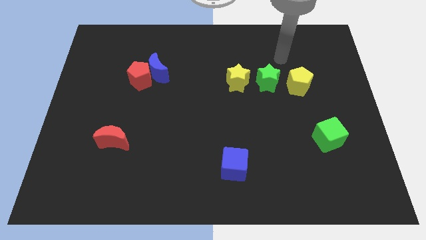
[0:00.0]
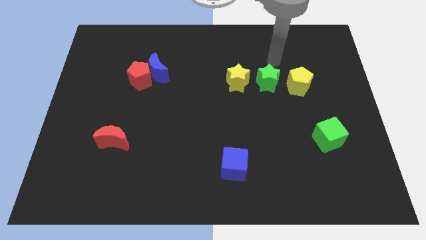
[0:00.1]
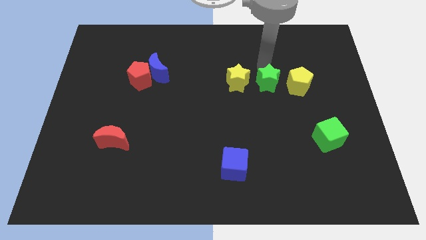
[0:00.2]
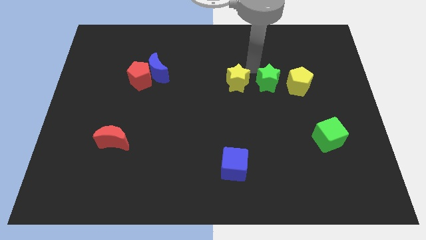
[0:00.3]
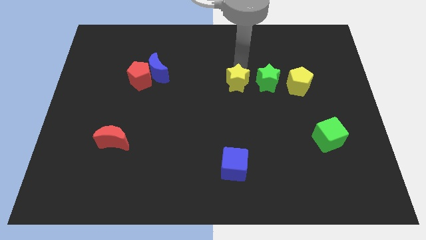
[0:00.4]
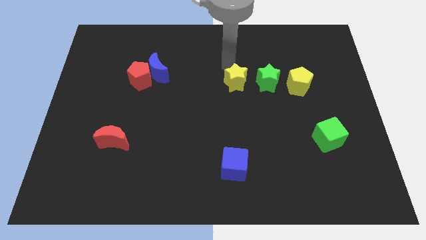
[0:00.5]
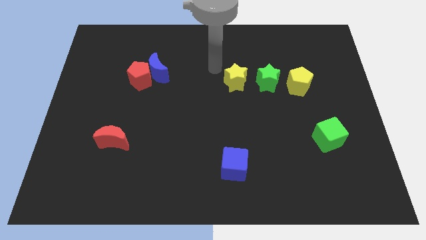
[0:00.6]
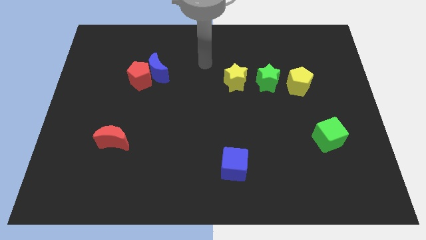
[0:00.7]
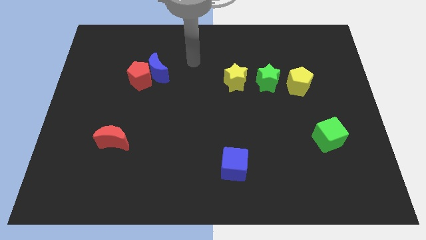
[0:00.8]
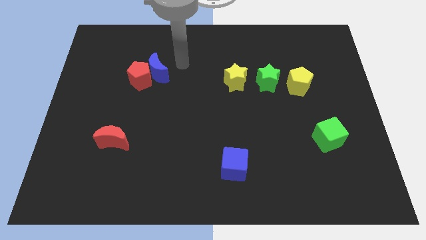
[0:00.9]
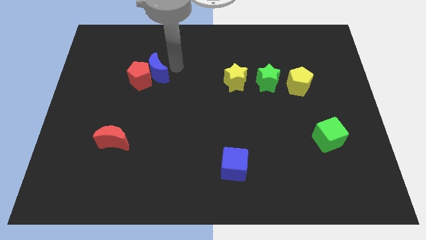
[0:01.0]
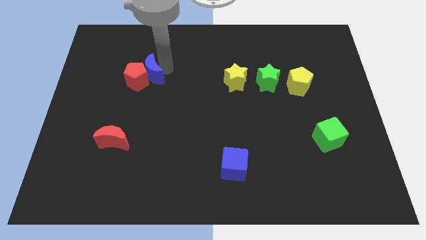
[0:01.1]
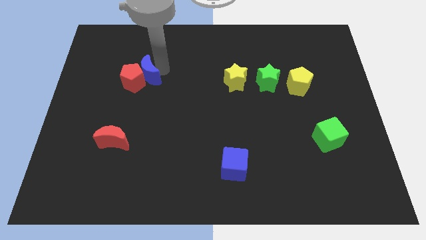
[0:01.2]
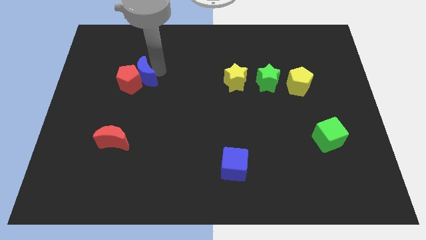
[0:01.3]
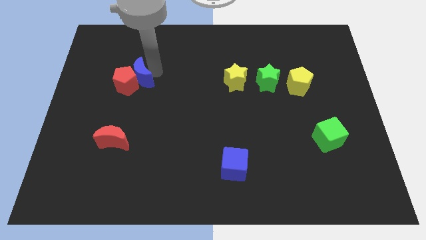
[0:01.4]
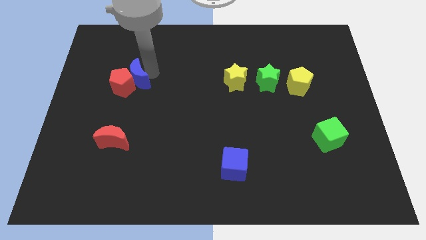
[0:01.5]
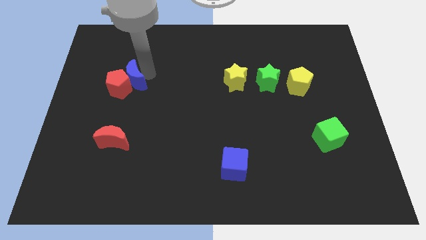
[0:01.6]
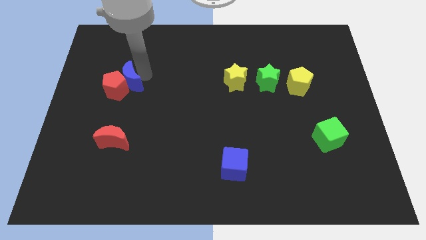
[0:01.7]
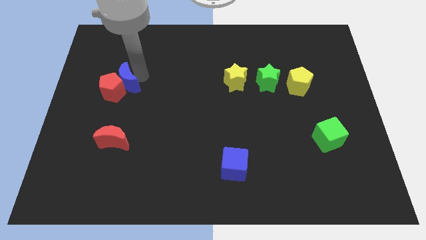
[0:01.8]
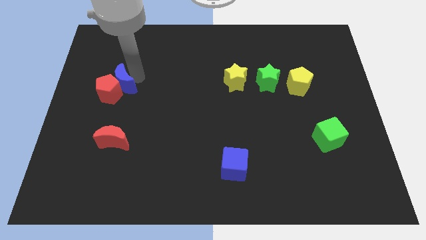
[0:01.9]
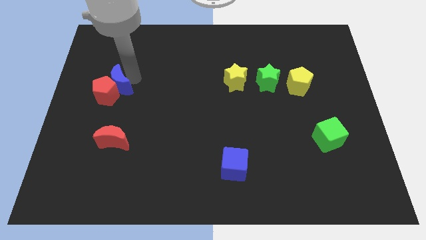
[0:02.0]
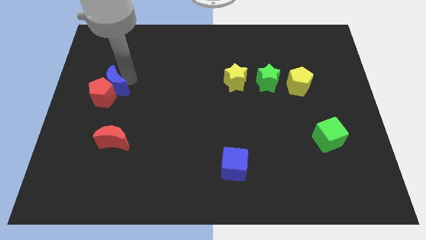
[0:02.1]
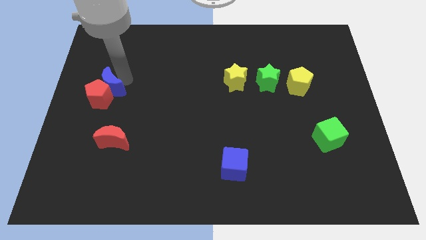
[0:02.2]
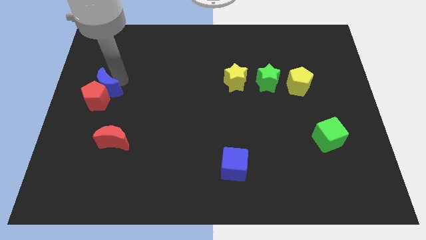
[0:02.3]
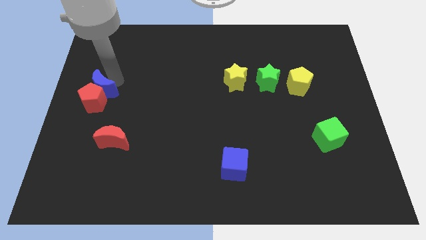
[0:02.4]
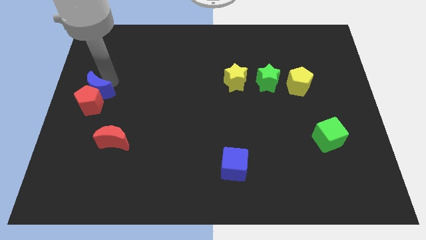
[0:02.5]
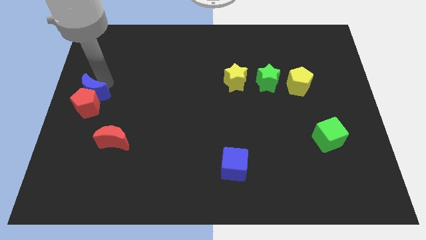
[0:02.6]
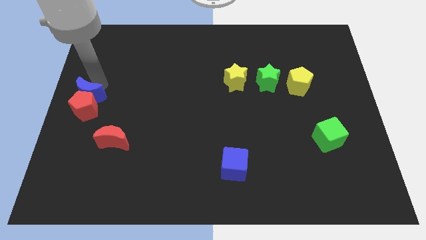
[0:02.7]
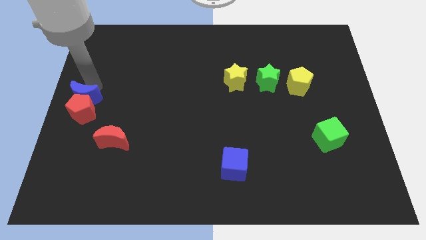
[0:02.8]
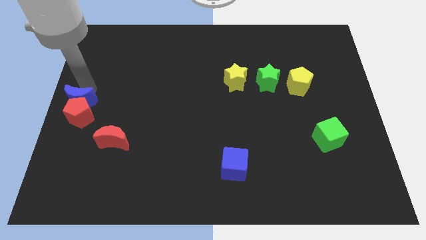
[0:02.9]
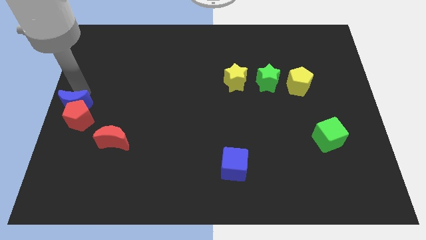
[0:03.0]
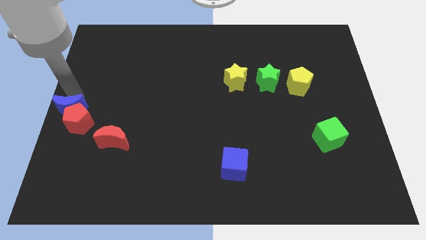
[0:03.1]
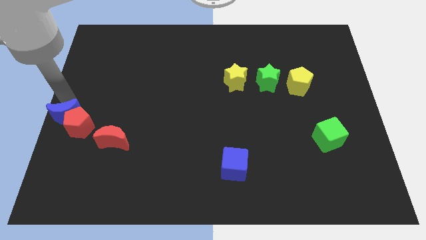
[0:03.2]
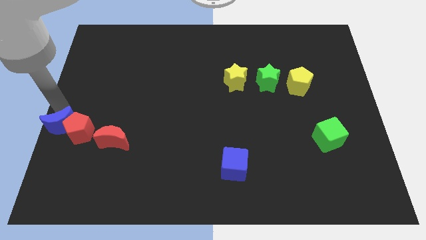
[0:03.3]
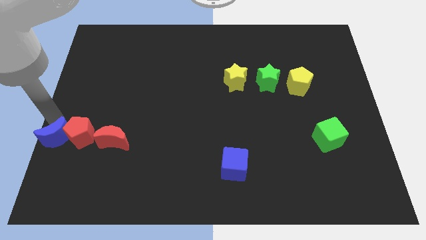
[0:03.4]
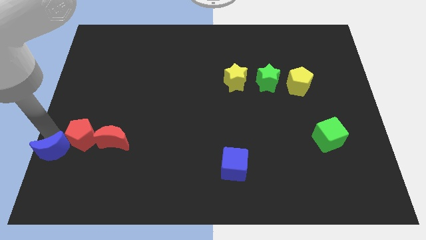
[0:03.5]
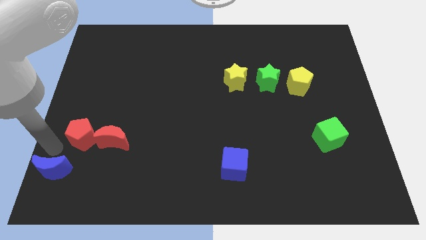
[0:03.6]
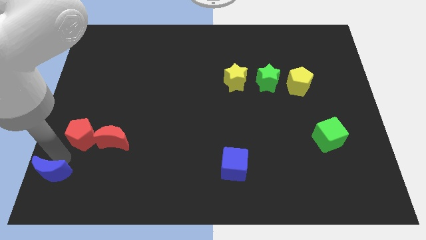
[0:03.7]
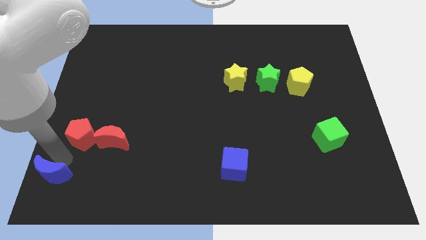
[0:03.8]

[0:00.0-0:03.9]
move the red pentagon away from the blue moon

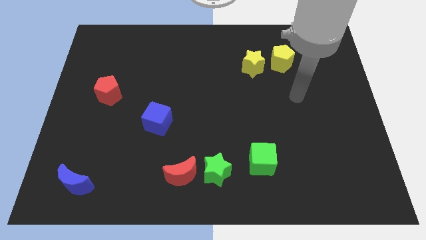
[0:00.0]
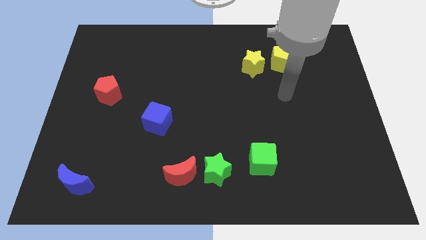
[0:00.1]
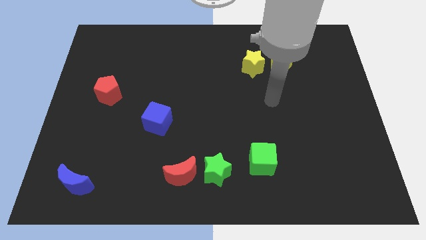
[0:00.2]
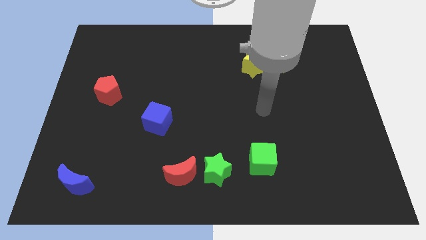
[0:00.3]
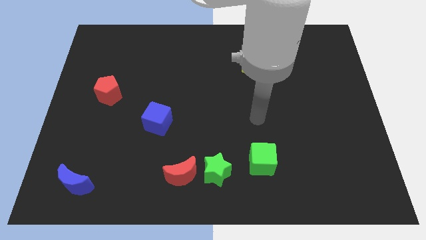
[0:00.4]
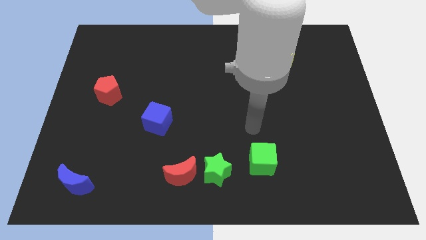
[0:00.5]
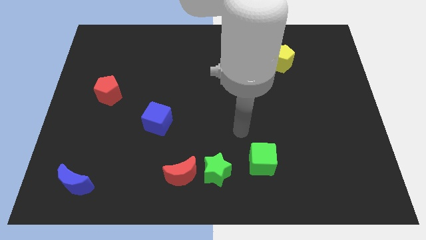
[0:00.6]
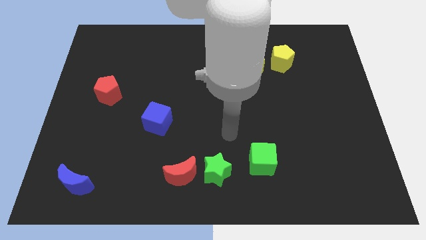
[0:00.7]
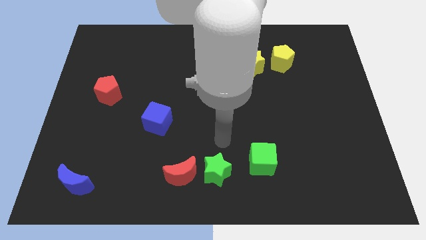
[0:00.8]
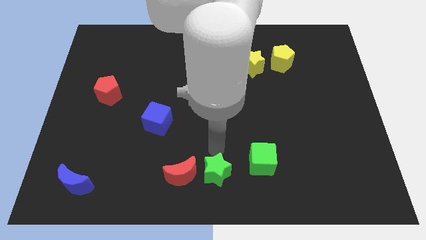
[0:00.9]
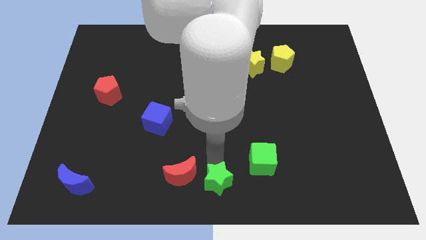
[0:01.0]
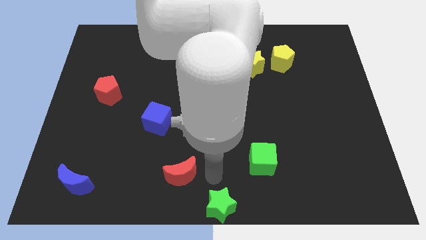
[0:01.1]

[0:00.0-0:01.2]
pull the red moon apart from the green star

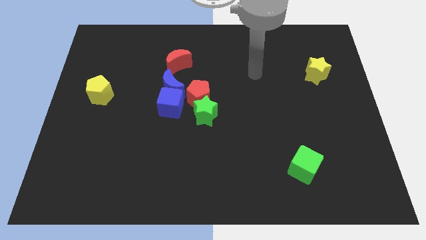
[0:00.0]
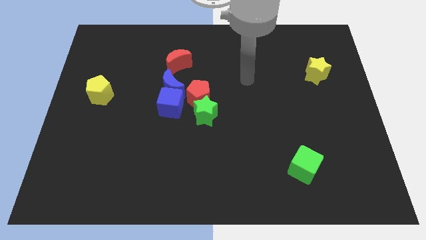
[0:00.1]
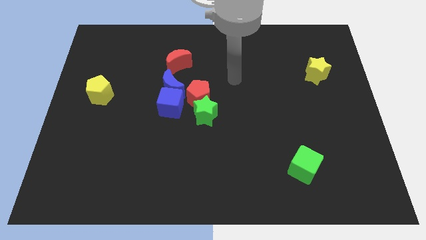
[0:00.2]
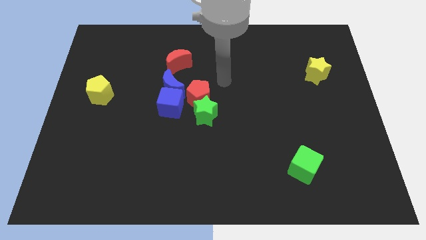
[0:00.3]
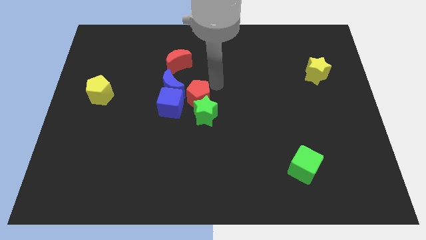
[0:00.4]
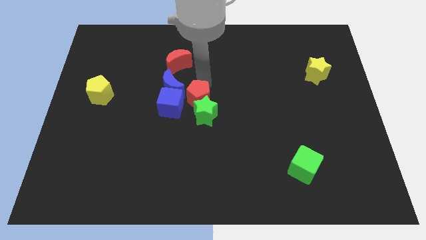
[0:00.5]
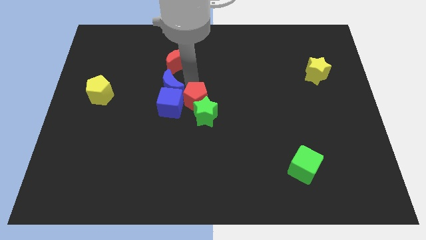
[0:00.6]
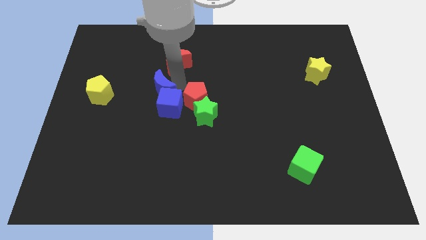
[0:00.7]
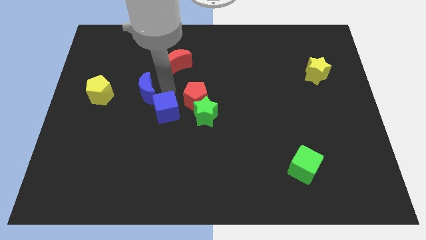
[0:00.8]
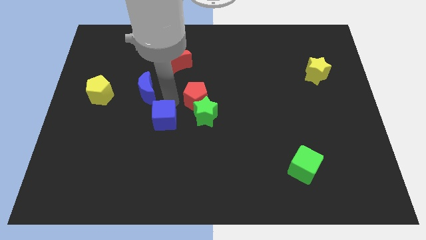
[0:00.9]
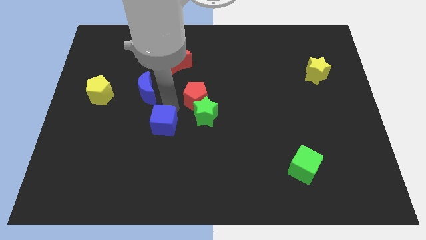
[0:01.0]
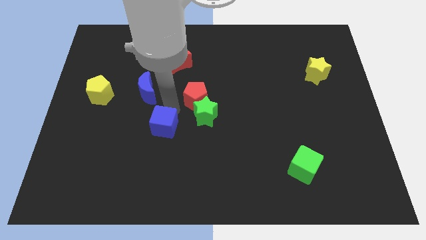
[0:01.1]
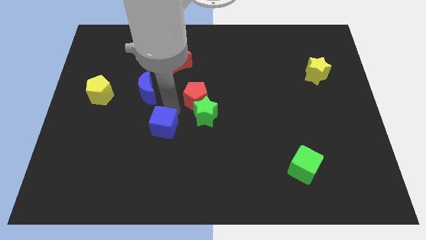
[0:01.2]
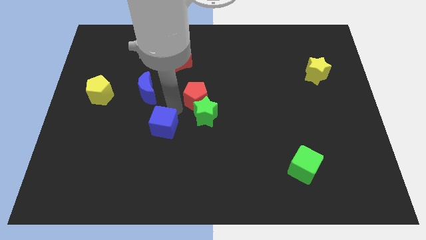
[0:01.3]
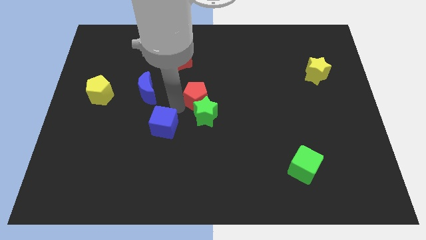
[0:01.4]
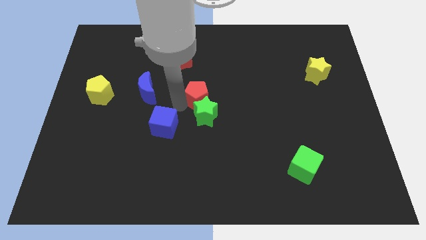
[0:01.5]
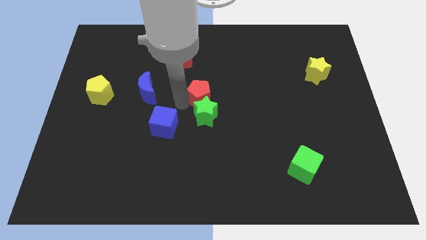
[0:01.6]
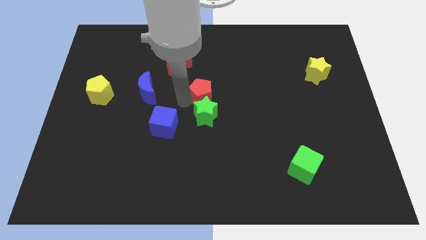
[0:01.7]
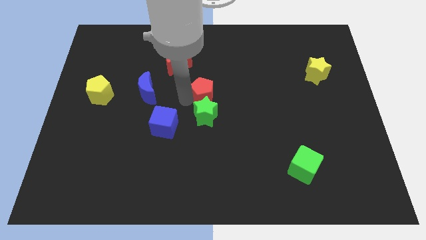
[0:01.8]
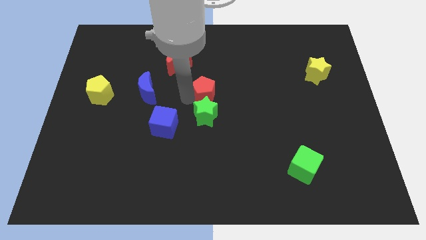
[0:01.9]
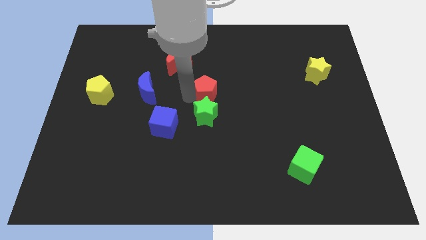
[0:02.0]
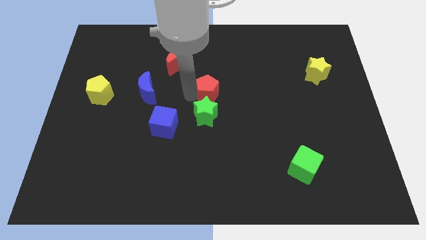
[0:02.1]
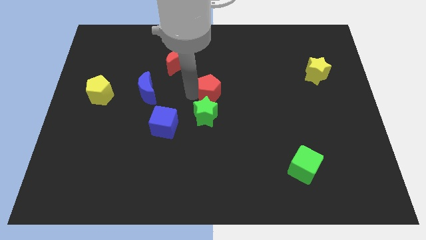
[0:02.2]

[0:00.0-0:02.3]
separate the red pentagon from the clump

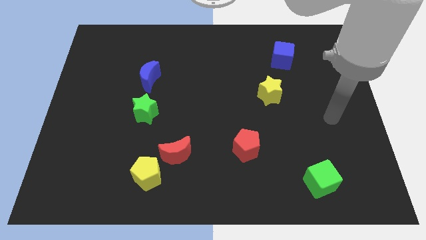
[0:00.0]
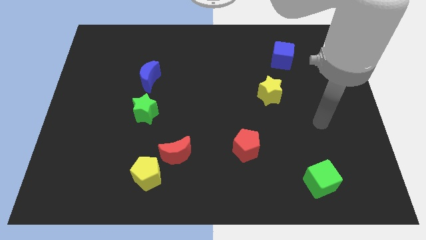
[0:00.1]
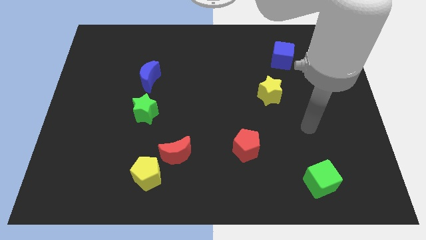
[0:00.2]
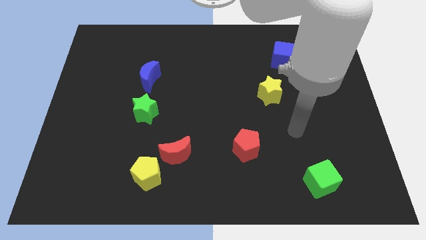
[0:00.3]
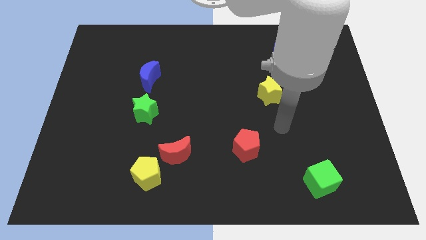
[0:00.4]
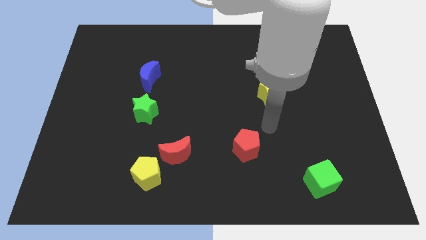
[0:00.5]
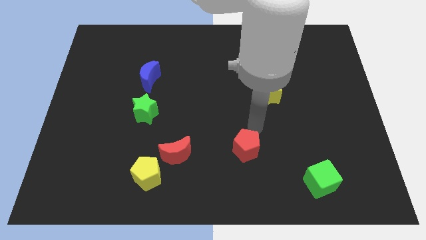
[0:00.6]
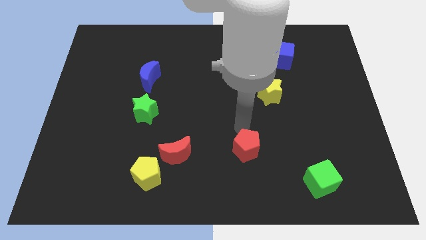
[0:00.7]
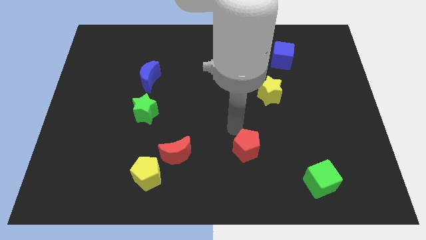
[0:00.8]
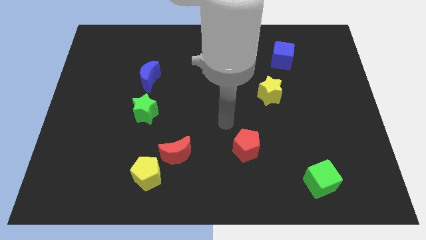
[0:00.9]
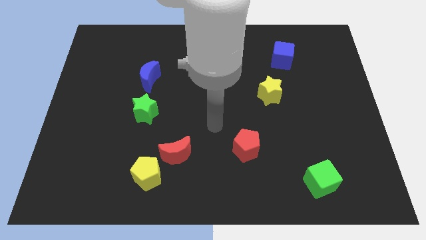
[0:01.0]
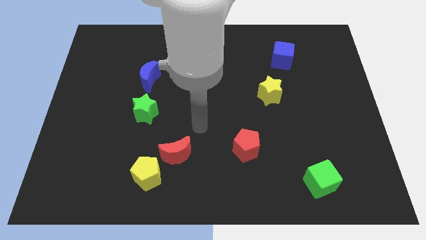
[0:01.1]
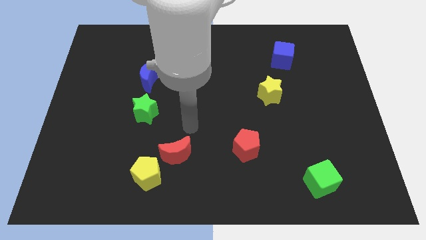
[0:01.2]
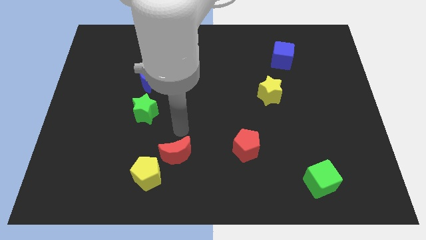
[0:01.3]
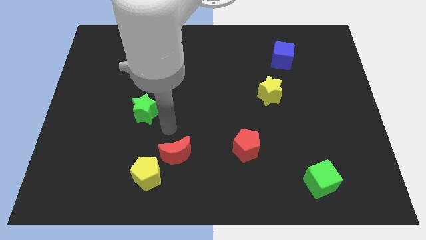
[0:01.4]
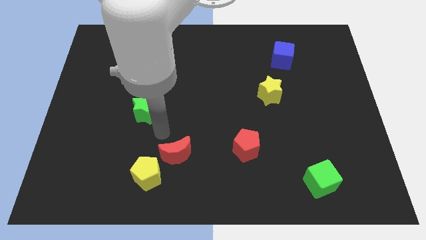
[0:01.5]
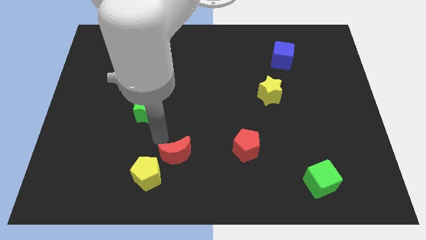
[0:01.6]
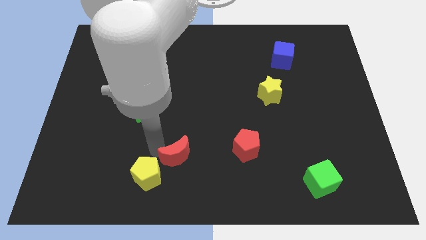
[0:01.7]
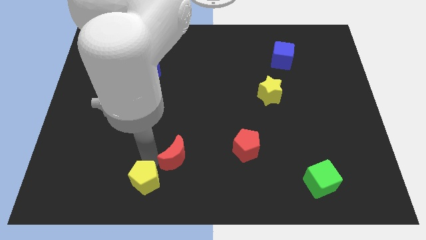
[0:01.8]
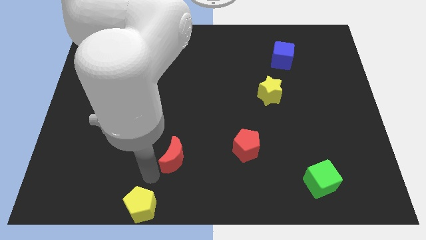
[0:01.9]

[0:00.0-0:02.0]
move the red moon away from the yellow pentagon
